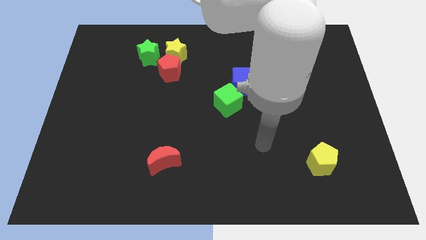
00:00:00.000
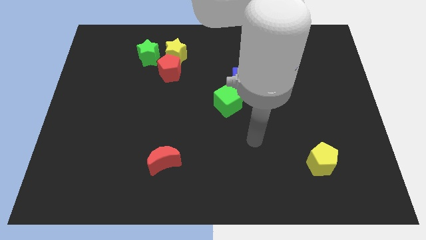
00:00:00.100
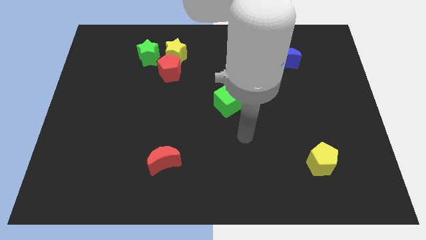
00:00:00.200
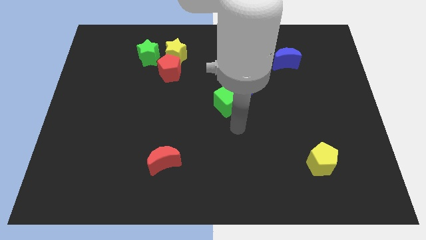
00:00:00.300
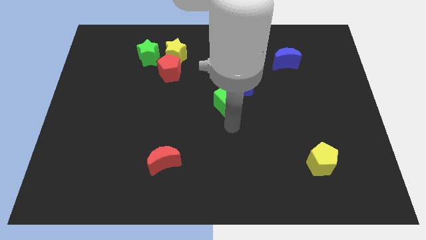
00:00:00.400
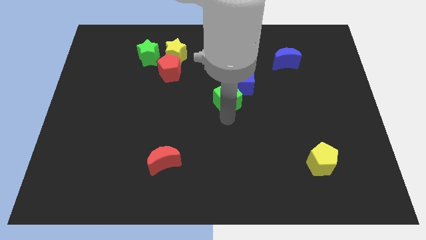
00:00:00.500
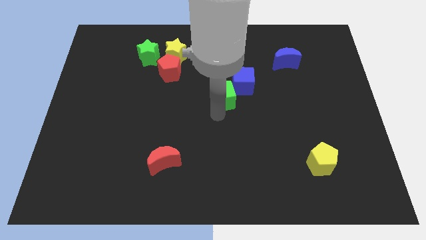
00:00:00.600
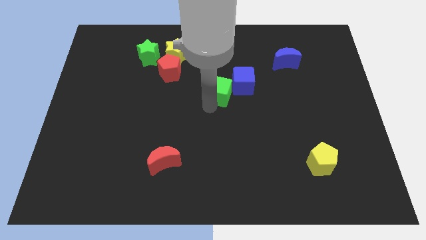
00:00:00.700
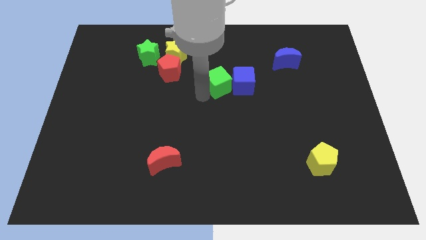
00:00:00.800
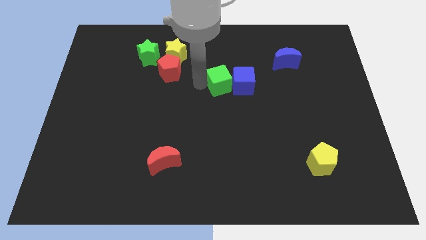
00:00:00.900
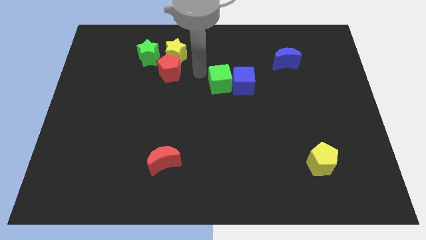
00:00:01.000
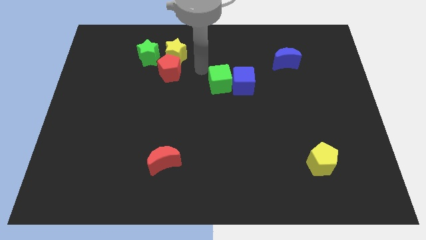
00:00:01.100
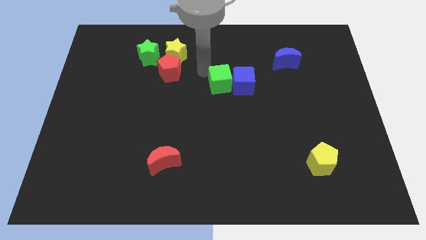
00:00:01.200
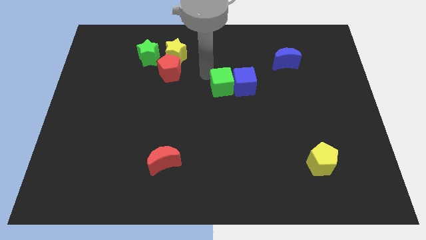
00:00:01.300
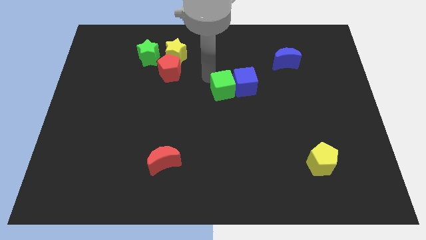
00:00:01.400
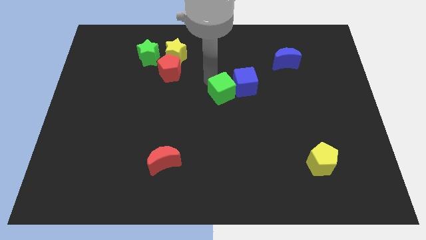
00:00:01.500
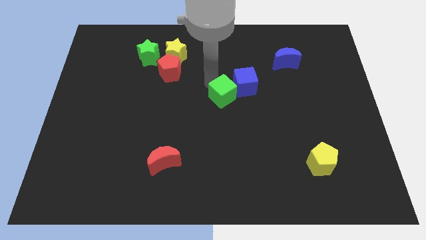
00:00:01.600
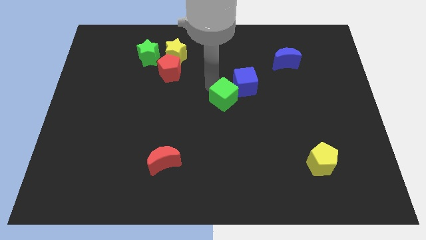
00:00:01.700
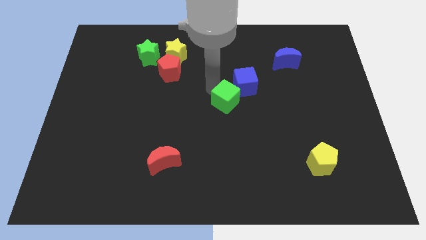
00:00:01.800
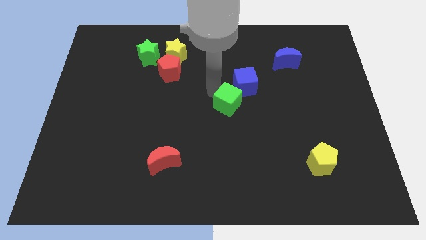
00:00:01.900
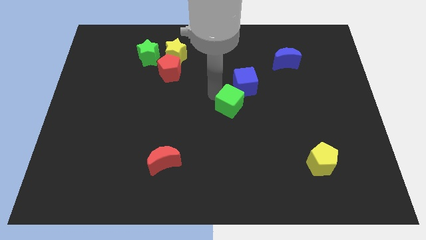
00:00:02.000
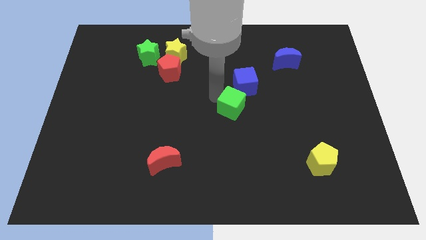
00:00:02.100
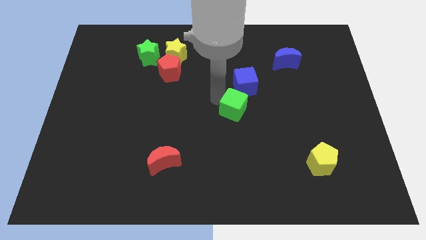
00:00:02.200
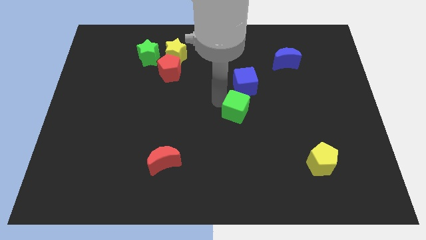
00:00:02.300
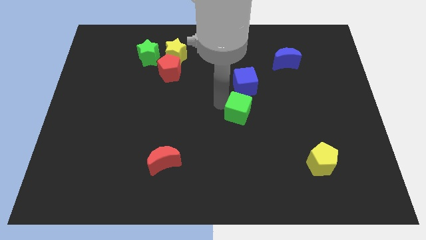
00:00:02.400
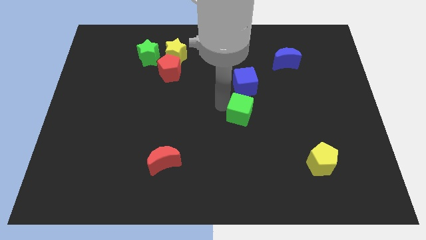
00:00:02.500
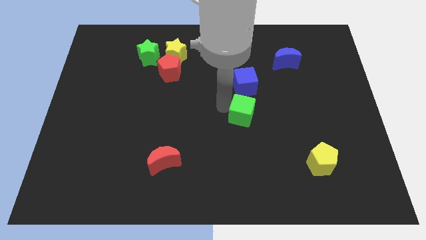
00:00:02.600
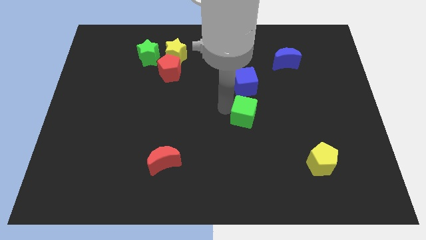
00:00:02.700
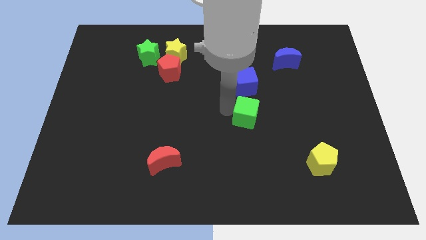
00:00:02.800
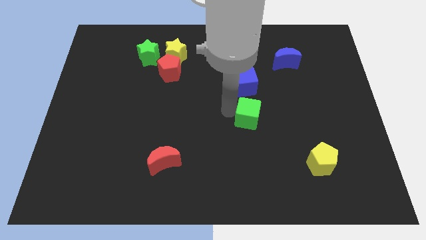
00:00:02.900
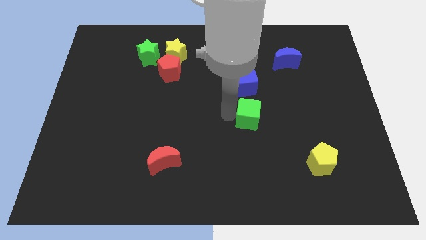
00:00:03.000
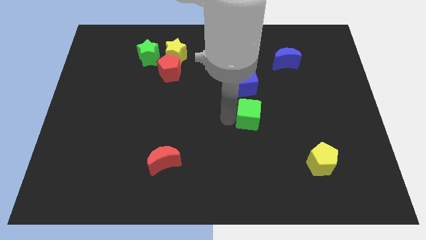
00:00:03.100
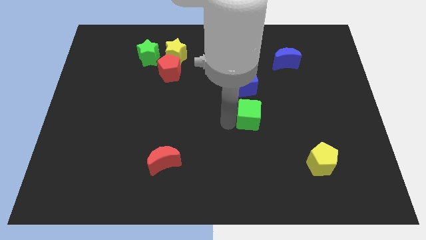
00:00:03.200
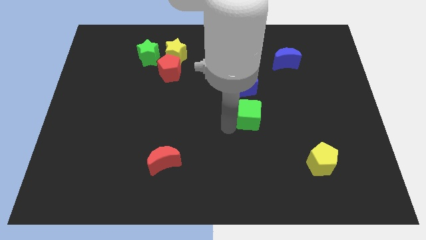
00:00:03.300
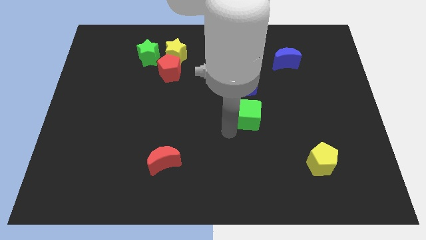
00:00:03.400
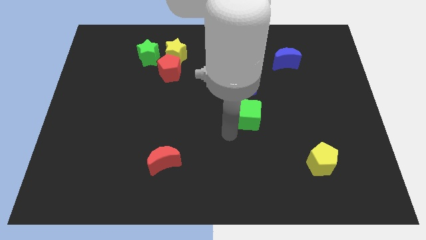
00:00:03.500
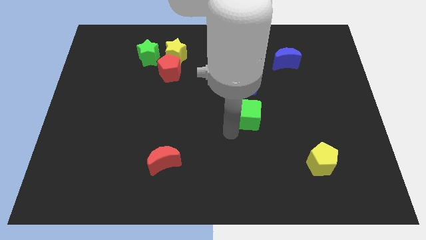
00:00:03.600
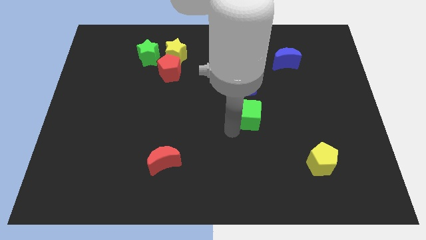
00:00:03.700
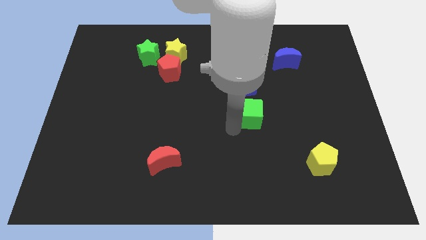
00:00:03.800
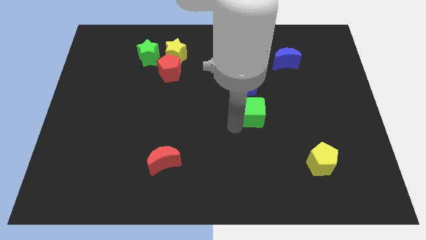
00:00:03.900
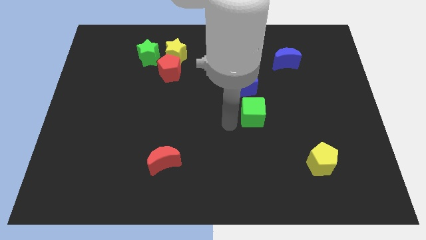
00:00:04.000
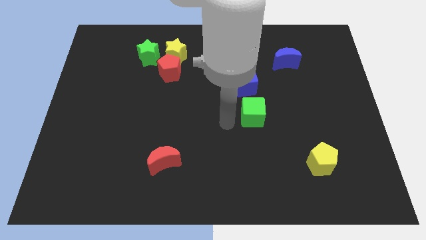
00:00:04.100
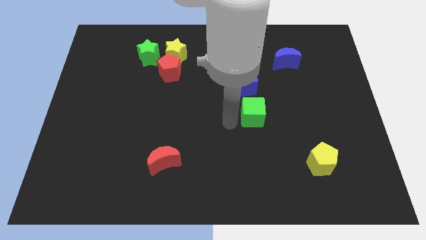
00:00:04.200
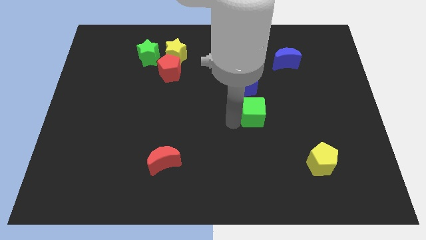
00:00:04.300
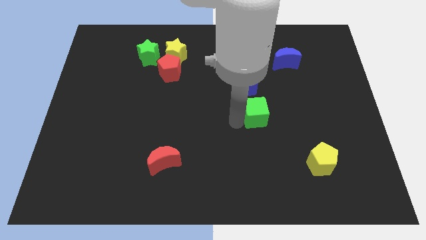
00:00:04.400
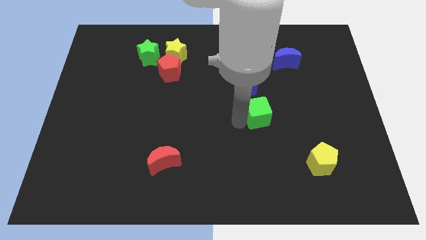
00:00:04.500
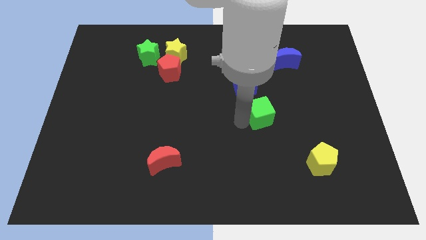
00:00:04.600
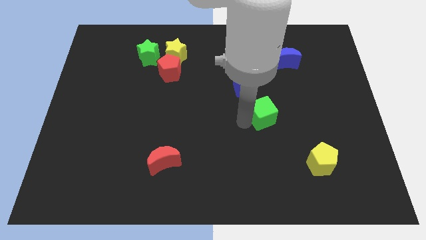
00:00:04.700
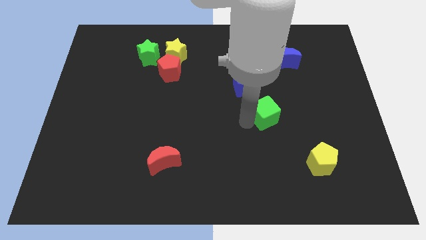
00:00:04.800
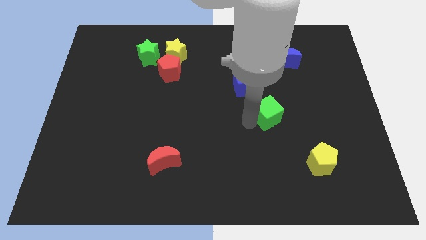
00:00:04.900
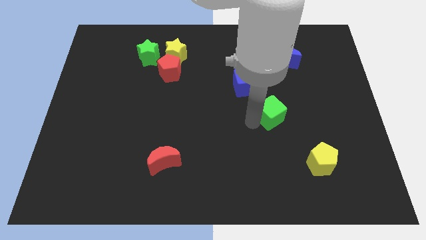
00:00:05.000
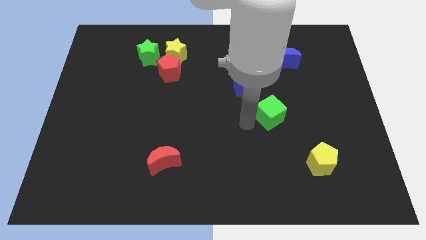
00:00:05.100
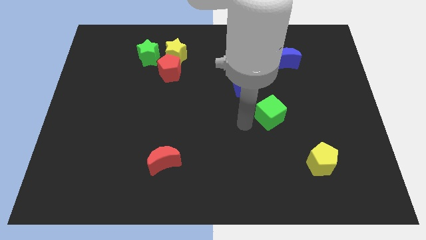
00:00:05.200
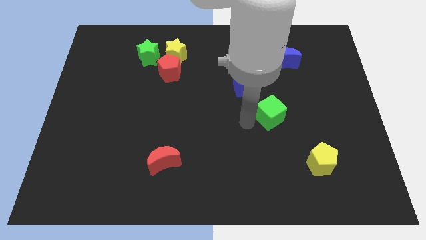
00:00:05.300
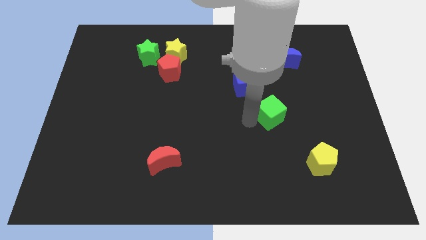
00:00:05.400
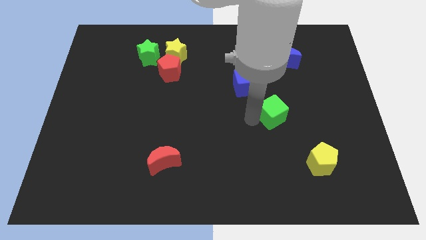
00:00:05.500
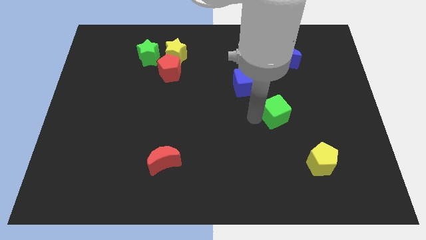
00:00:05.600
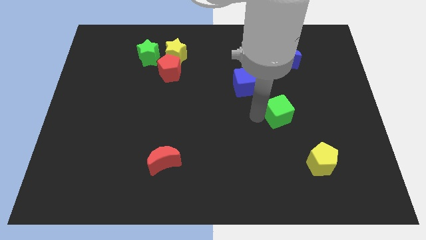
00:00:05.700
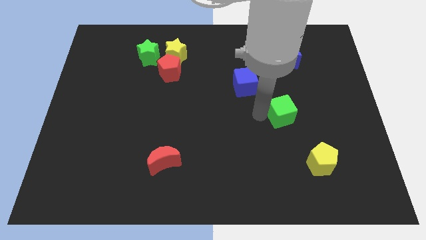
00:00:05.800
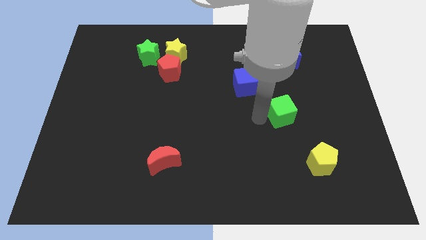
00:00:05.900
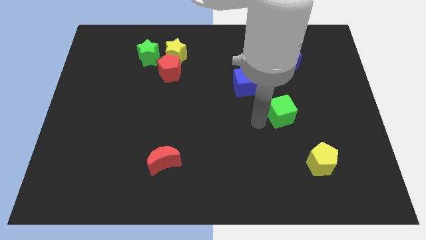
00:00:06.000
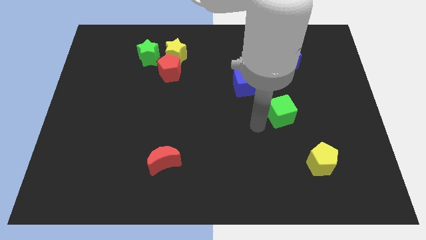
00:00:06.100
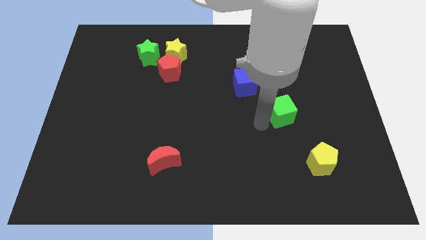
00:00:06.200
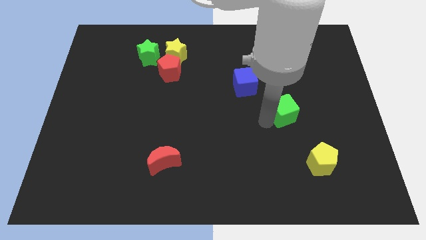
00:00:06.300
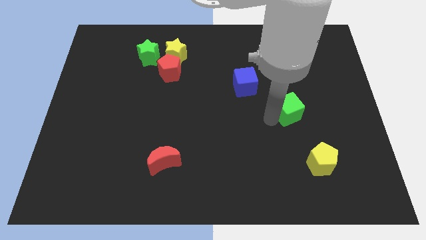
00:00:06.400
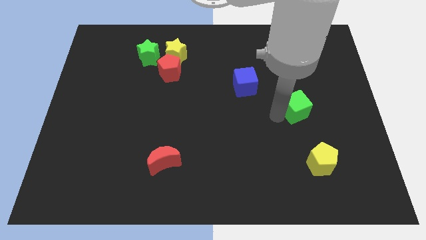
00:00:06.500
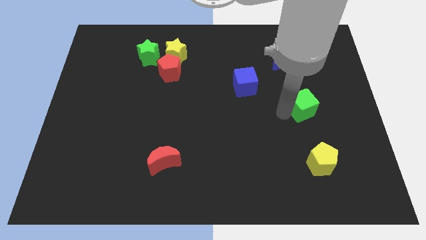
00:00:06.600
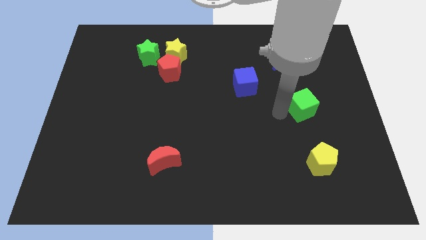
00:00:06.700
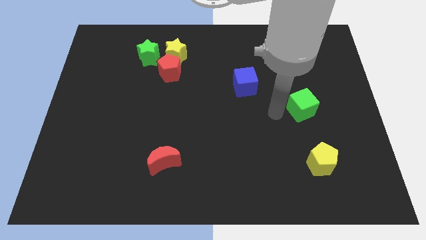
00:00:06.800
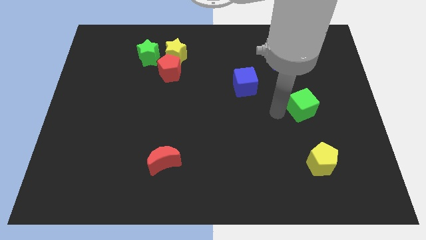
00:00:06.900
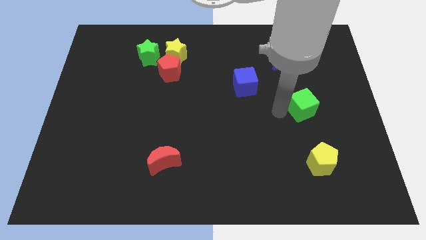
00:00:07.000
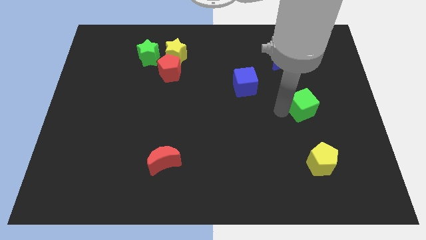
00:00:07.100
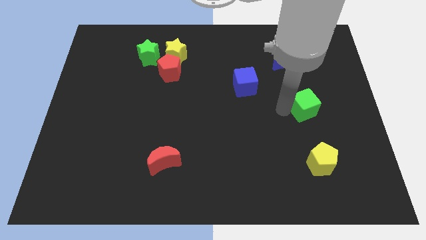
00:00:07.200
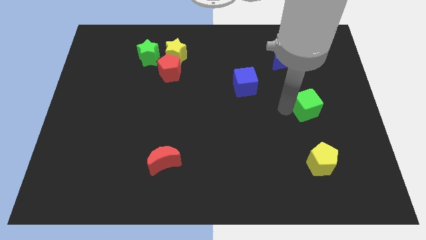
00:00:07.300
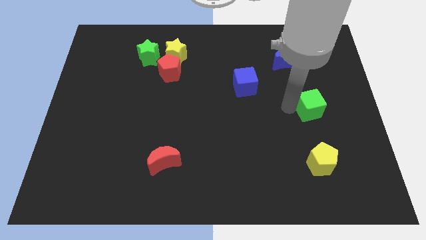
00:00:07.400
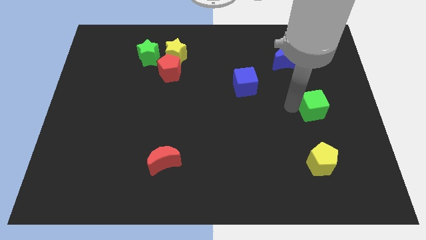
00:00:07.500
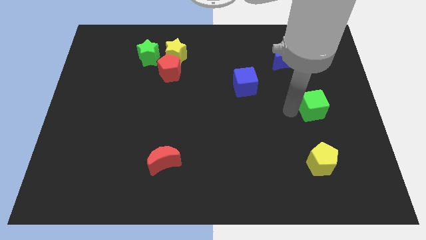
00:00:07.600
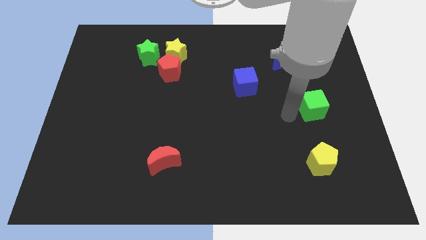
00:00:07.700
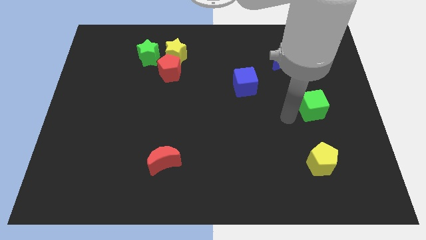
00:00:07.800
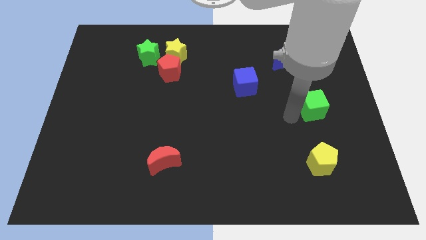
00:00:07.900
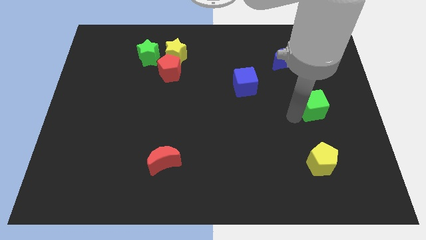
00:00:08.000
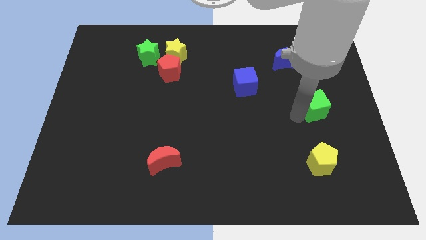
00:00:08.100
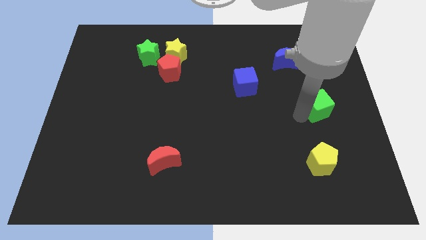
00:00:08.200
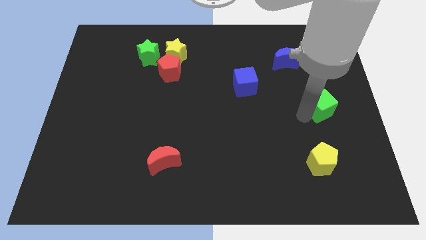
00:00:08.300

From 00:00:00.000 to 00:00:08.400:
put the green cube to the center right
